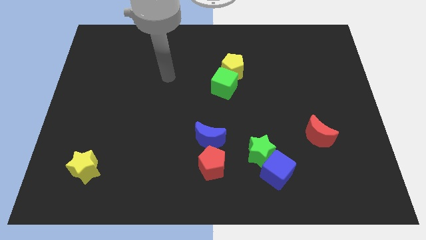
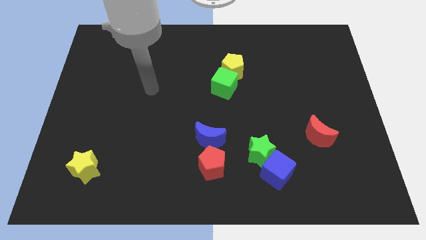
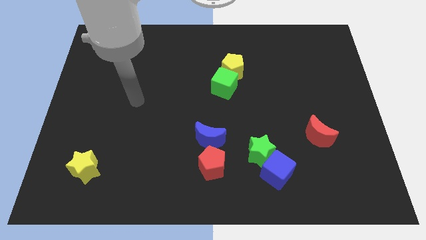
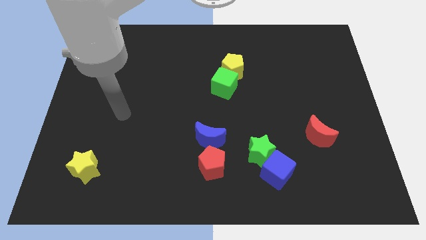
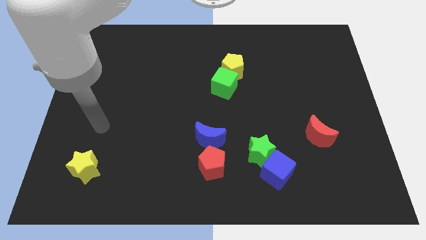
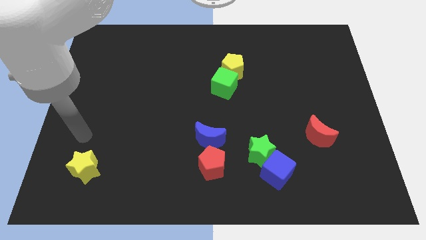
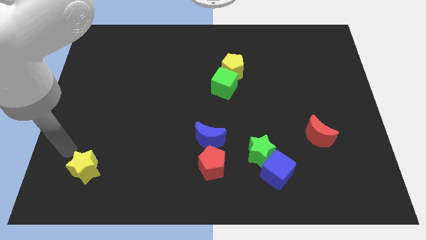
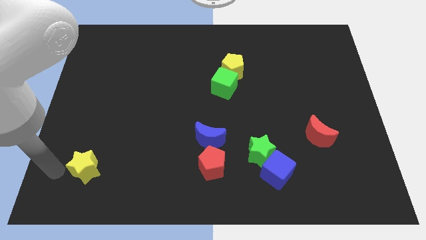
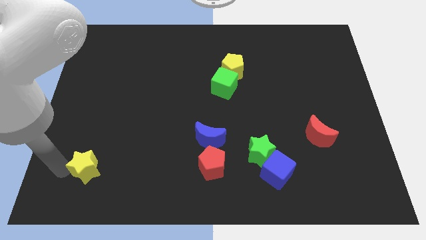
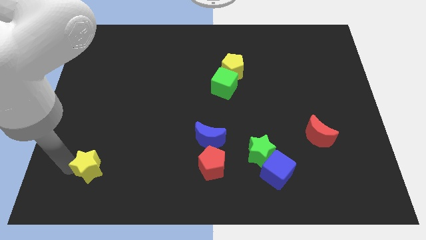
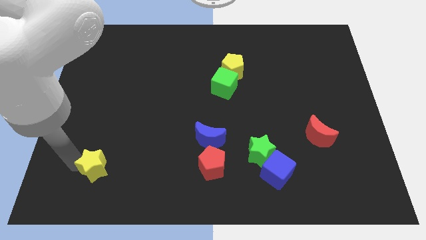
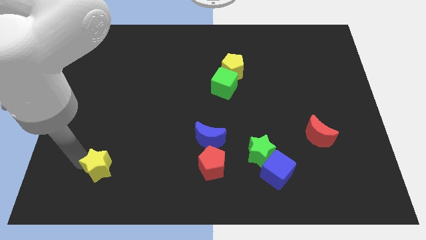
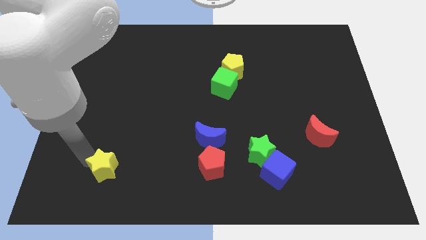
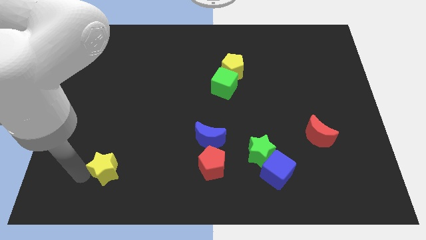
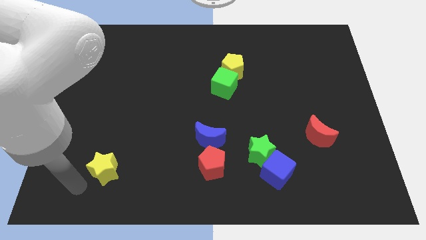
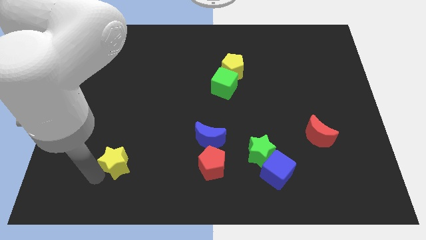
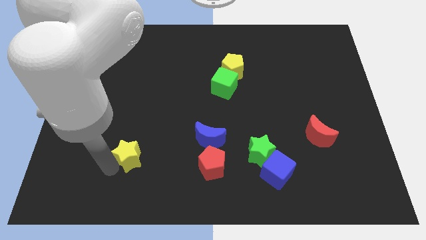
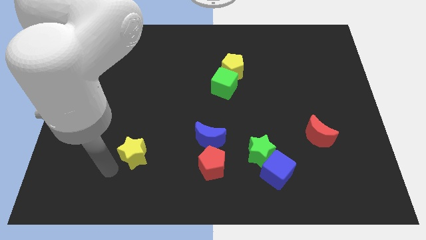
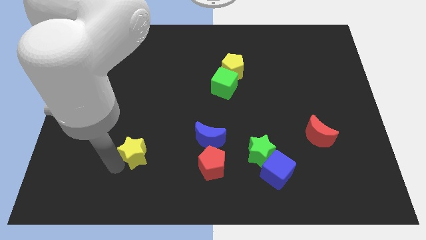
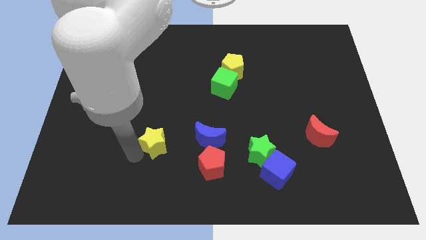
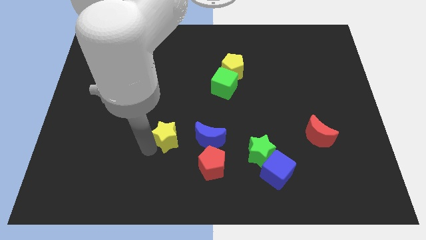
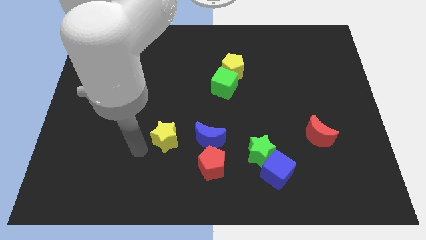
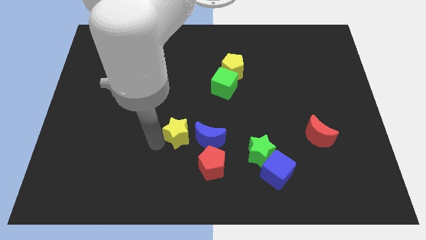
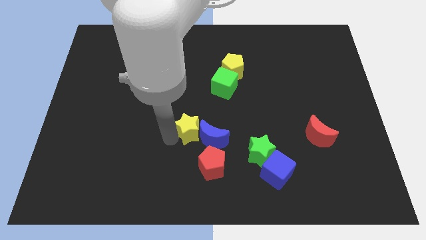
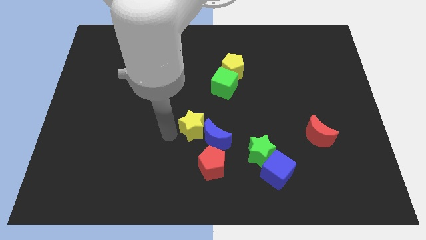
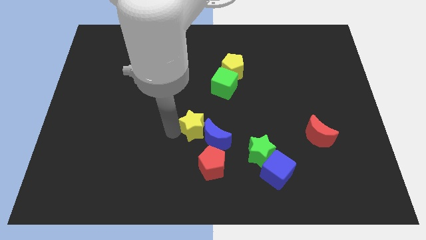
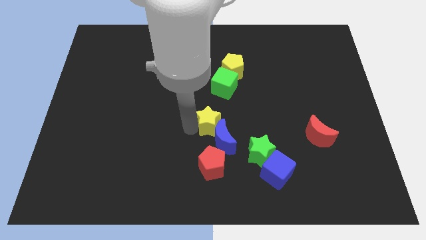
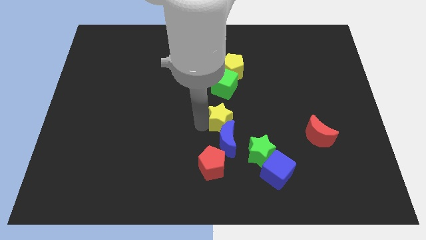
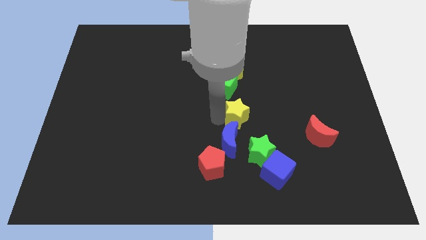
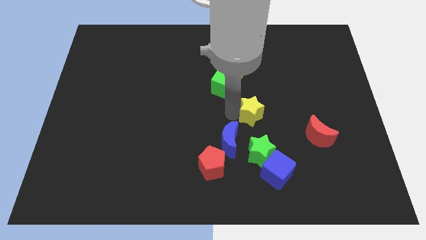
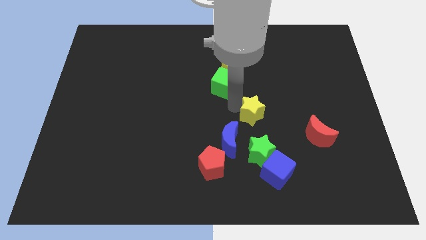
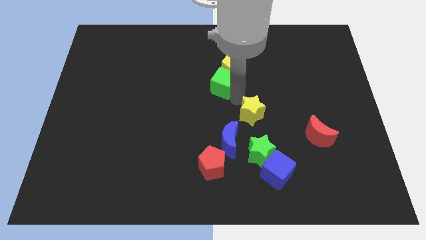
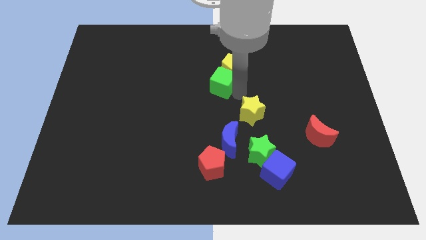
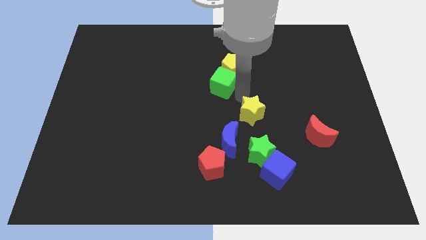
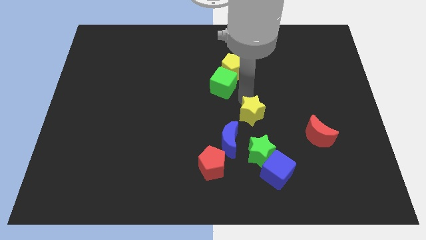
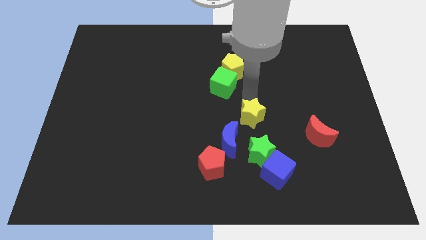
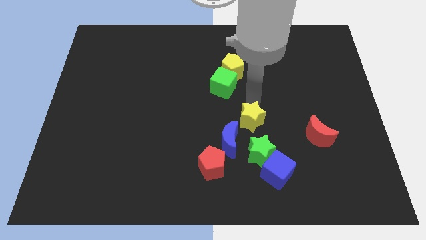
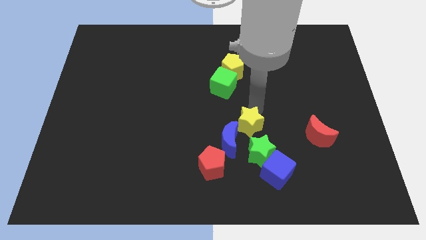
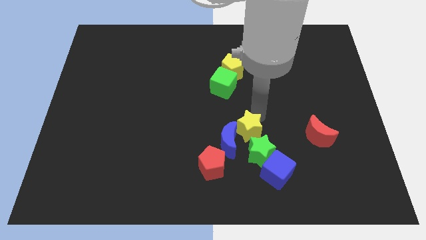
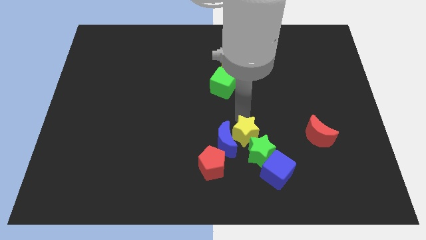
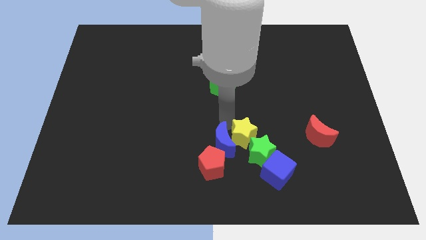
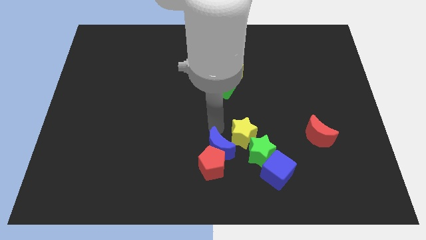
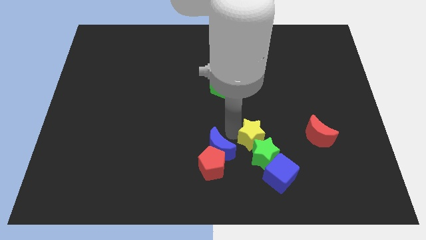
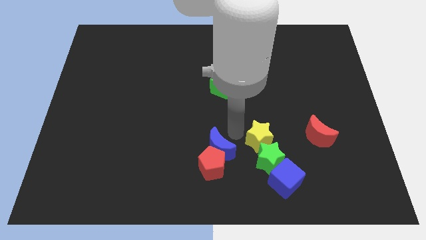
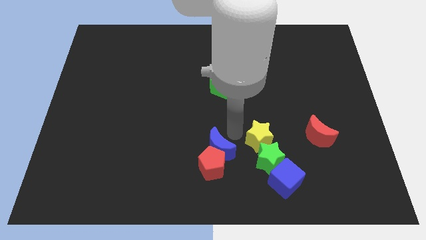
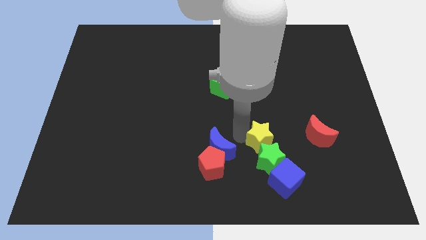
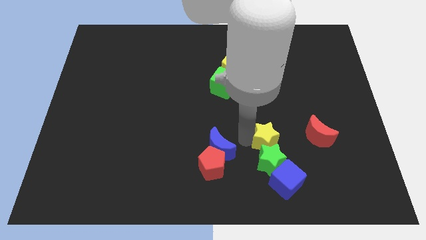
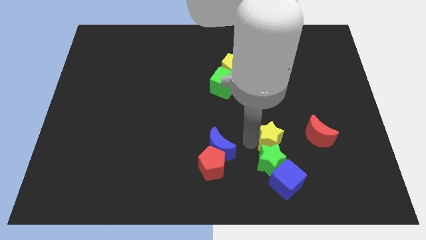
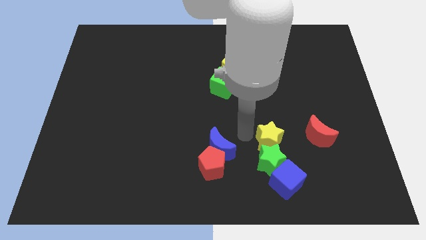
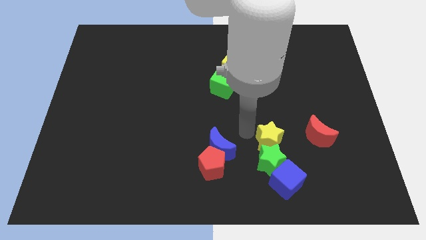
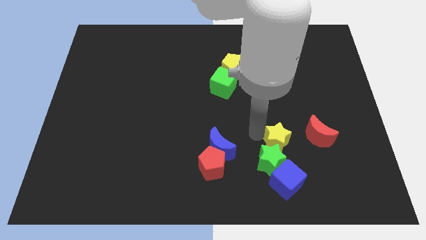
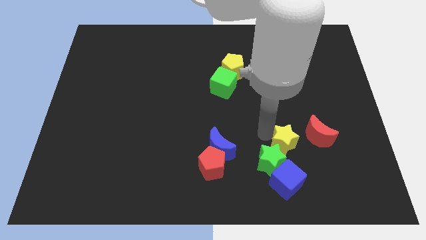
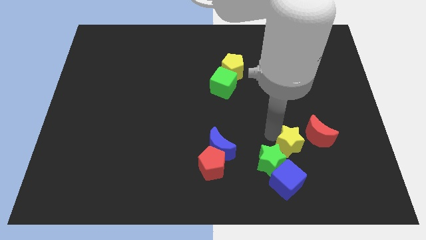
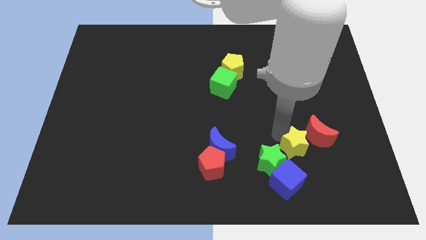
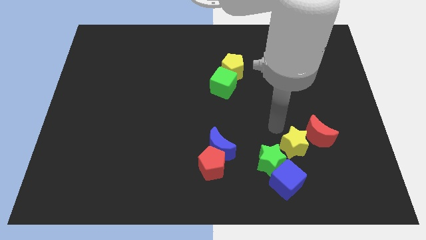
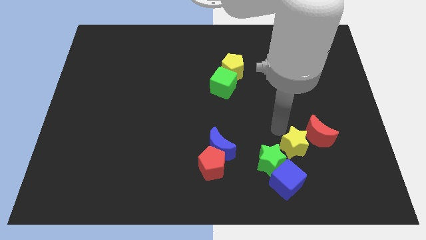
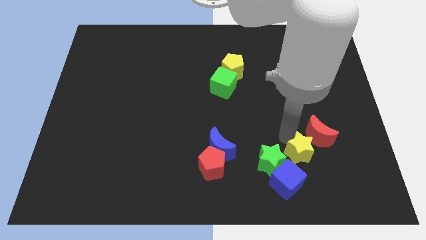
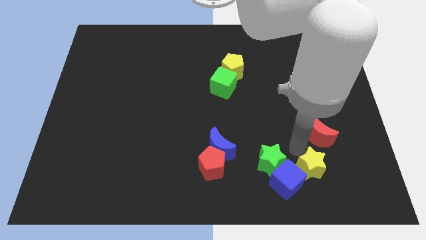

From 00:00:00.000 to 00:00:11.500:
slide the yellow star right of the blue cube

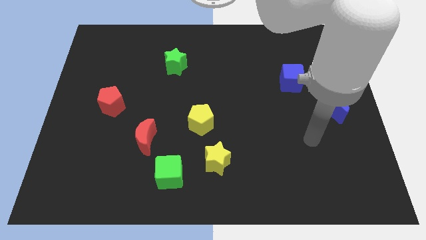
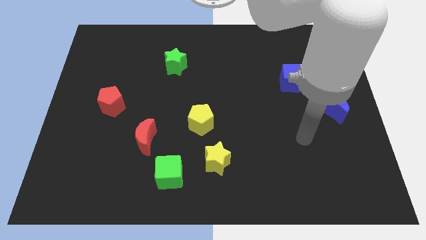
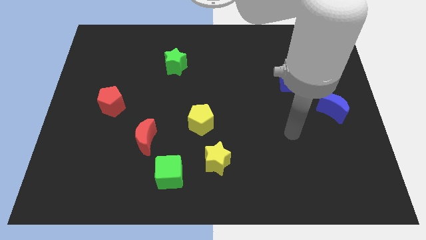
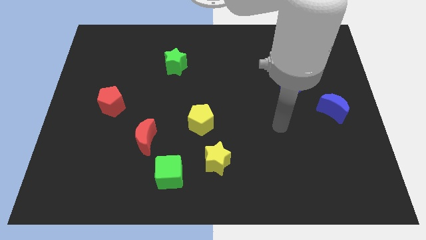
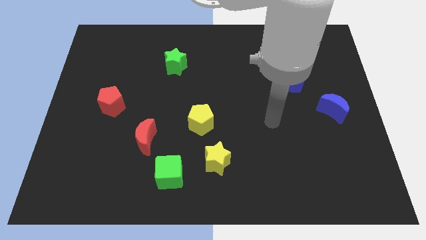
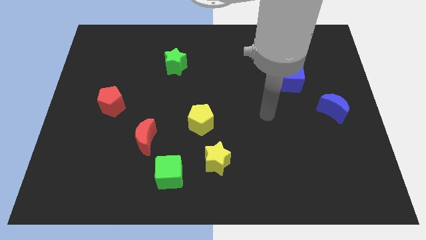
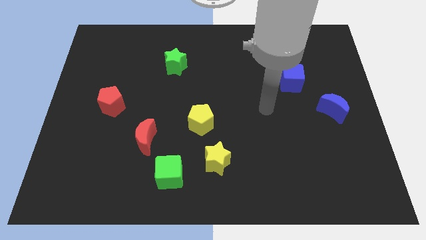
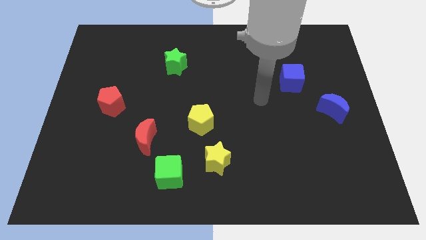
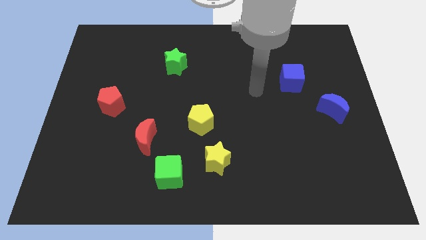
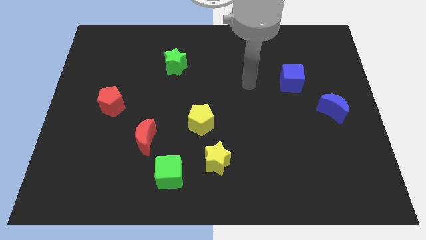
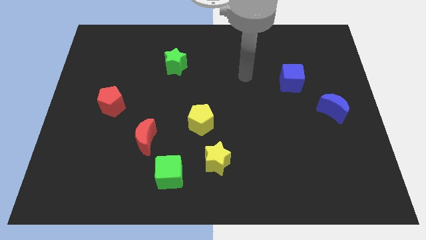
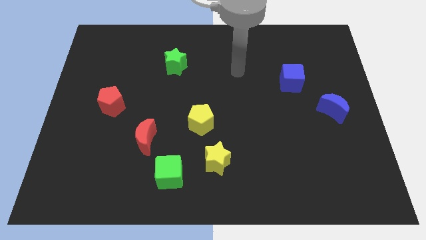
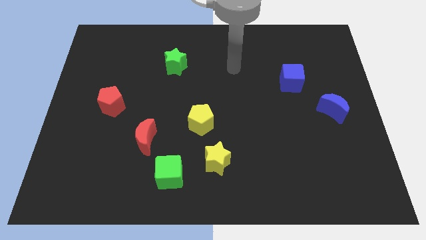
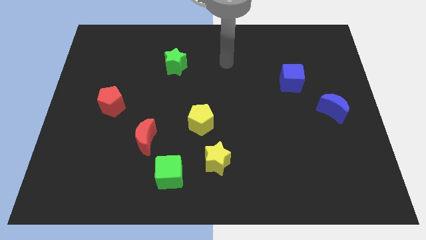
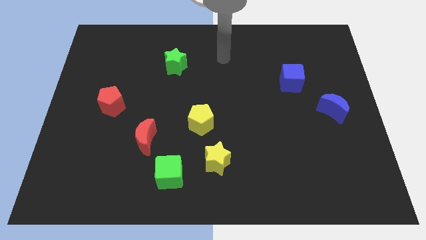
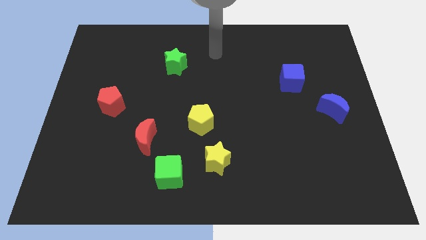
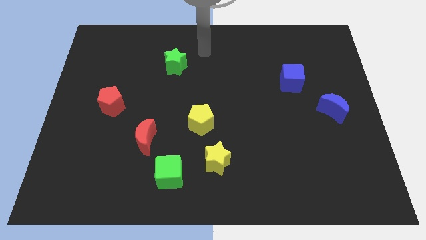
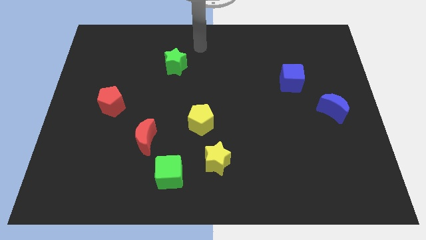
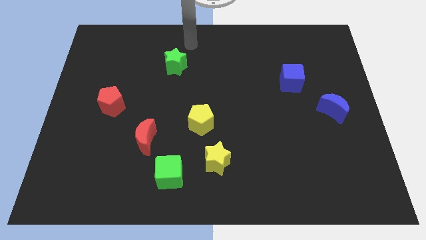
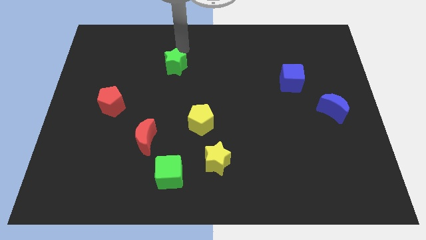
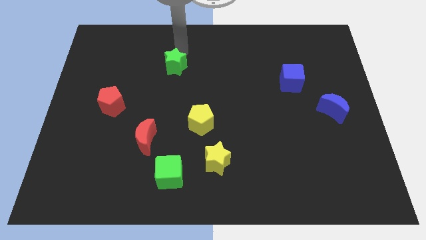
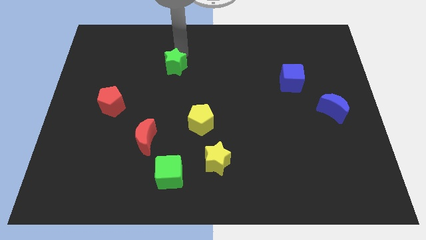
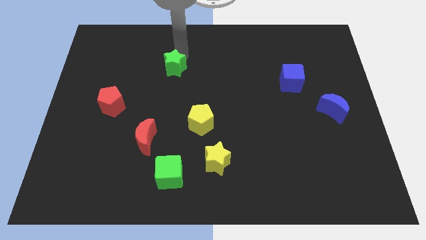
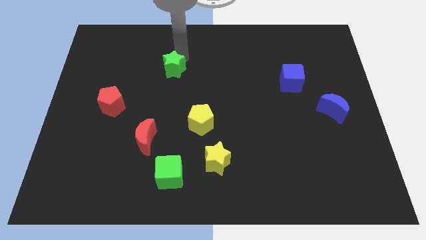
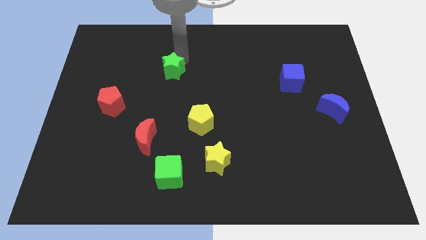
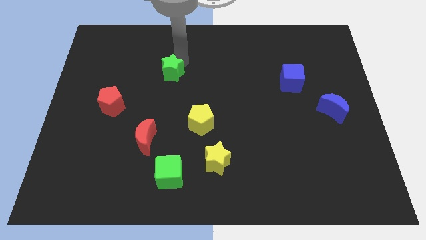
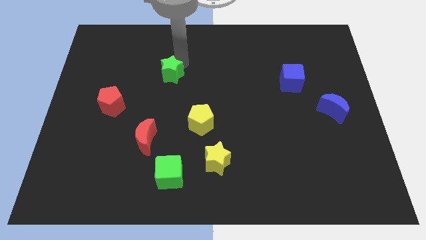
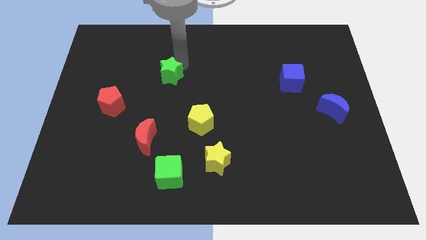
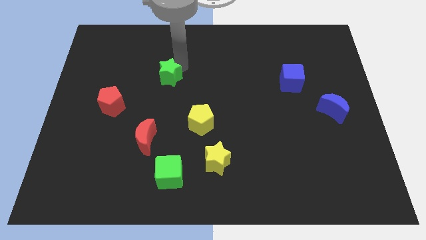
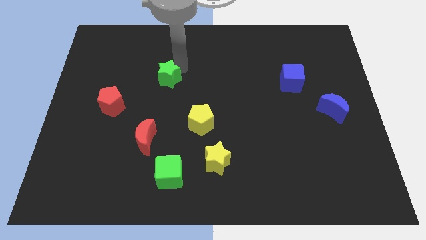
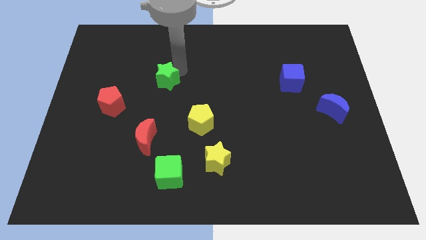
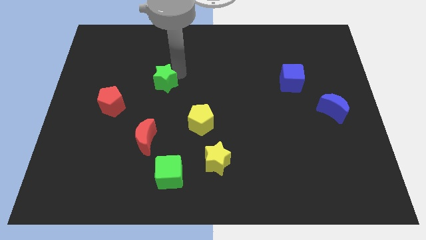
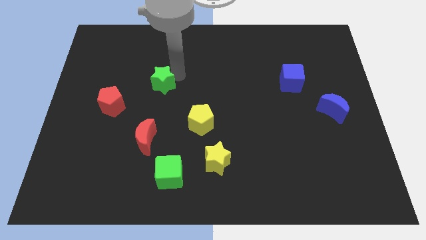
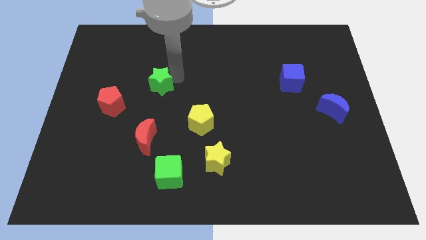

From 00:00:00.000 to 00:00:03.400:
move the green star above the red moon
